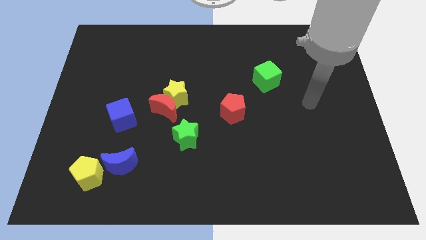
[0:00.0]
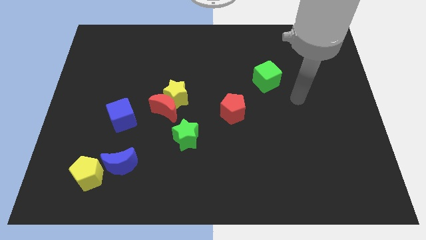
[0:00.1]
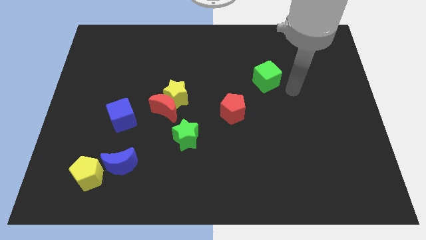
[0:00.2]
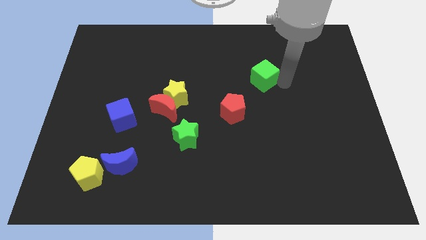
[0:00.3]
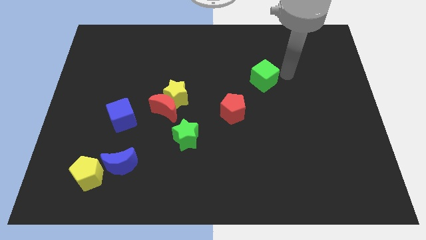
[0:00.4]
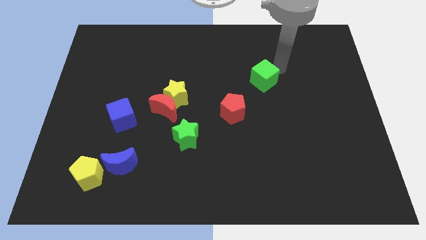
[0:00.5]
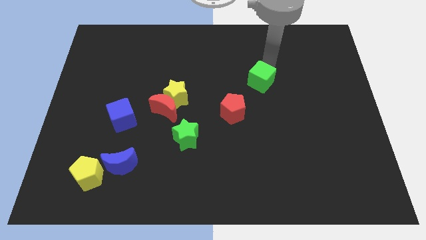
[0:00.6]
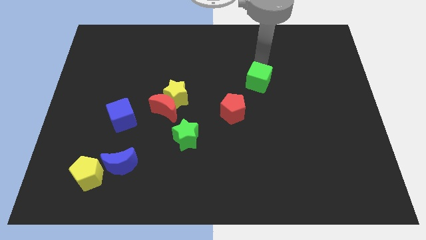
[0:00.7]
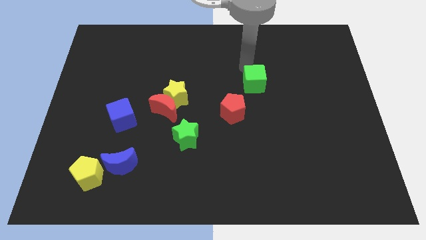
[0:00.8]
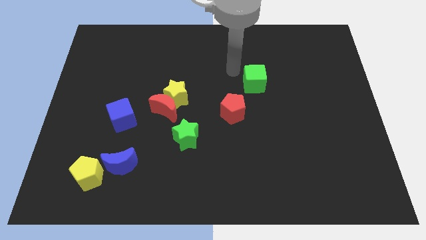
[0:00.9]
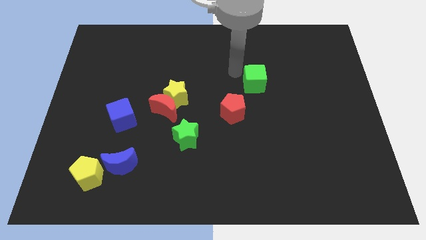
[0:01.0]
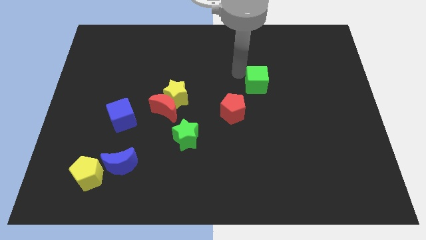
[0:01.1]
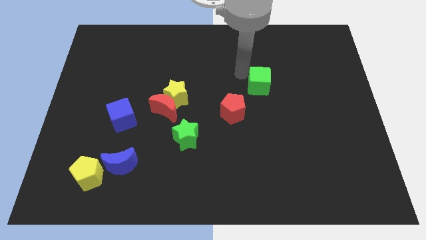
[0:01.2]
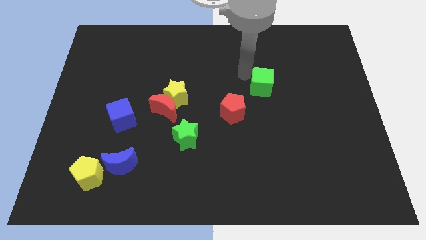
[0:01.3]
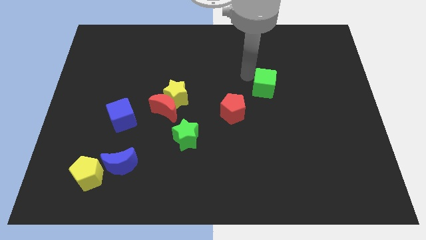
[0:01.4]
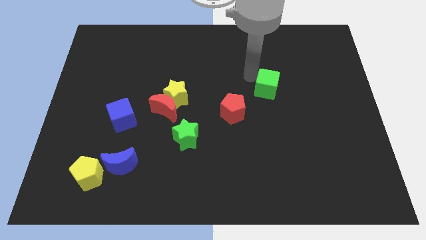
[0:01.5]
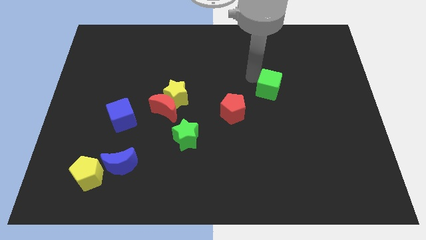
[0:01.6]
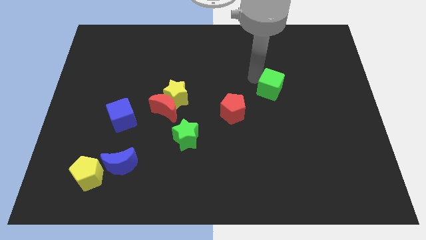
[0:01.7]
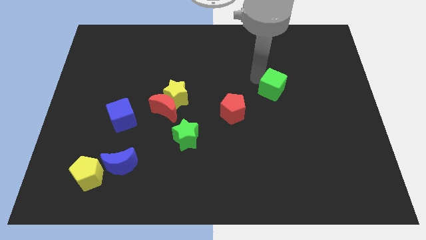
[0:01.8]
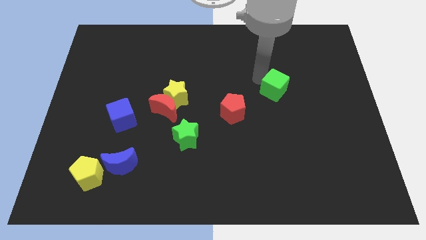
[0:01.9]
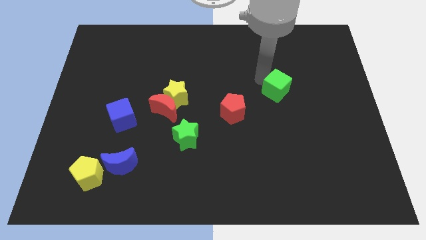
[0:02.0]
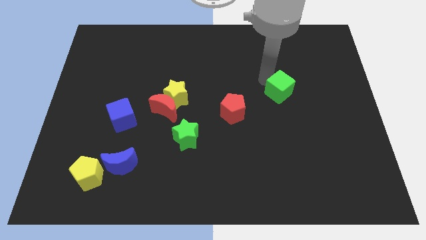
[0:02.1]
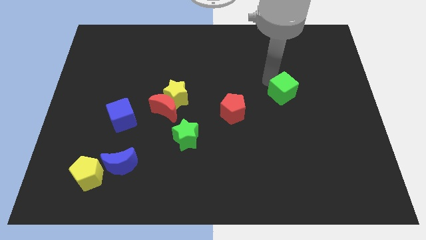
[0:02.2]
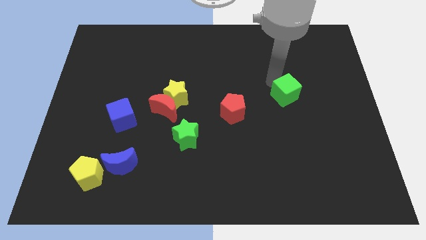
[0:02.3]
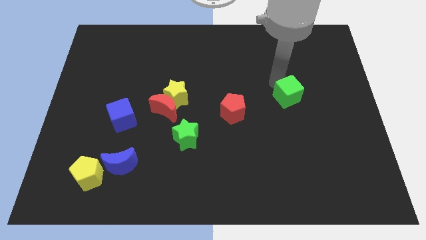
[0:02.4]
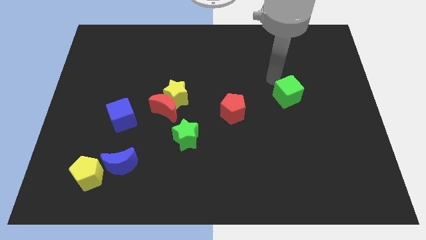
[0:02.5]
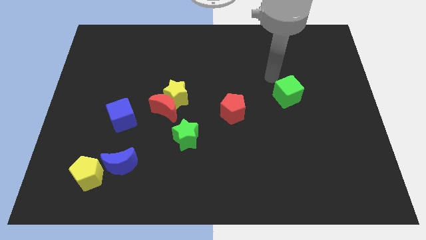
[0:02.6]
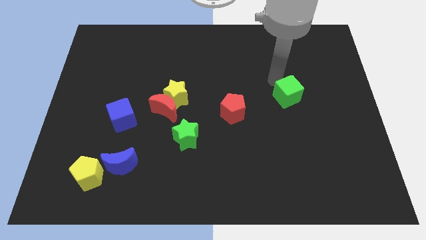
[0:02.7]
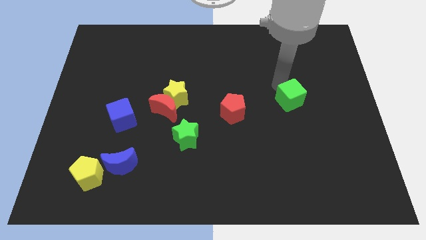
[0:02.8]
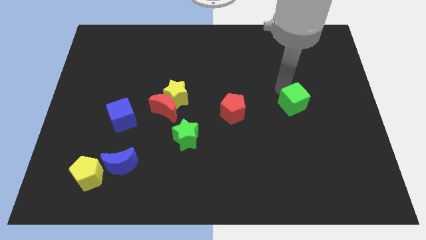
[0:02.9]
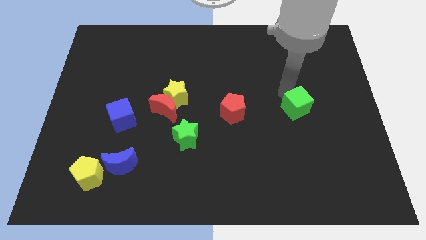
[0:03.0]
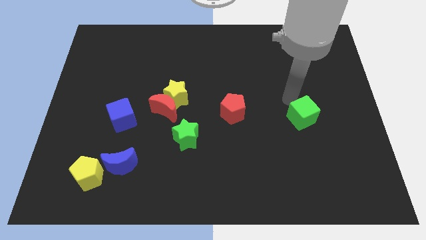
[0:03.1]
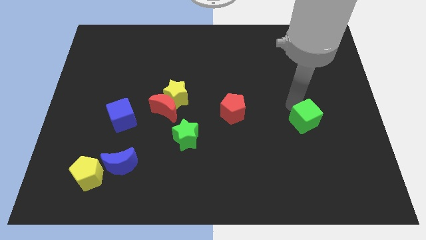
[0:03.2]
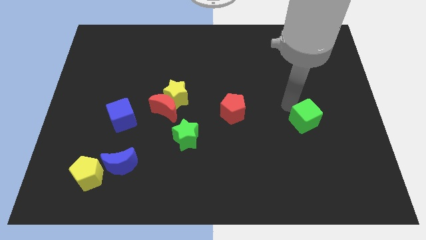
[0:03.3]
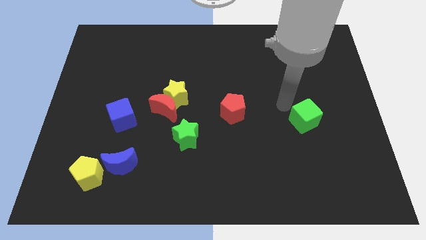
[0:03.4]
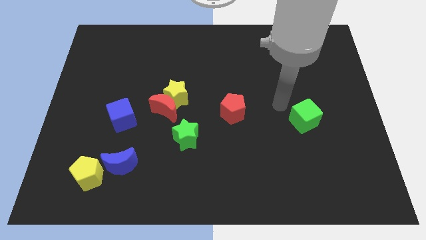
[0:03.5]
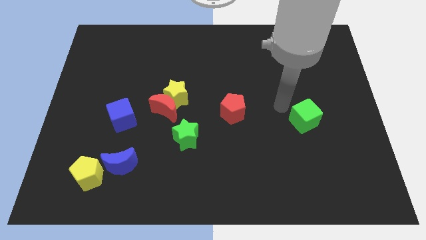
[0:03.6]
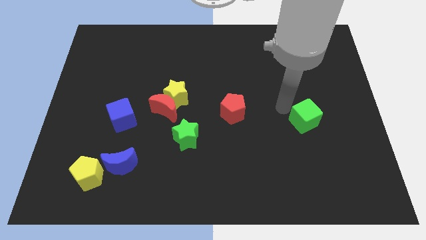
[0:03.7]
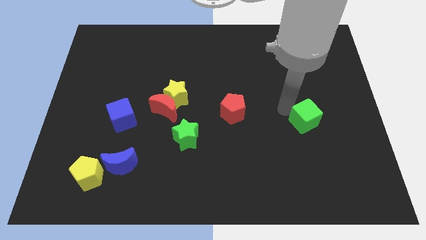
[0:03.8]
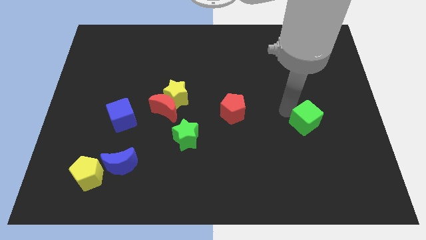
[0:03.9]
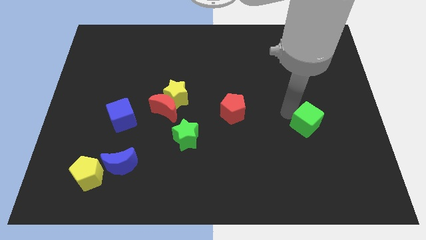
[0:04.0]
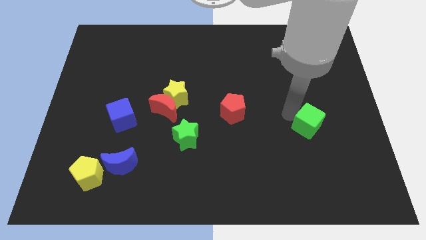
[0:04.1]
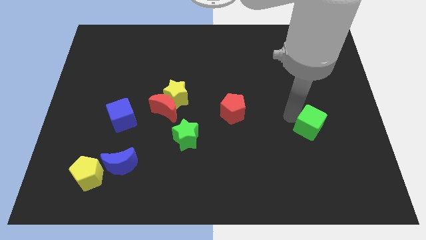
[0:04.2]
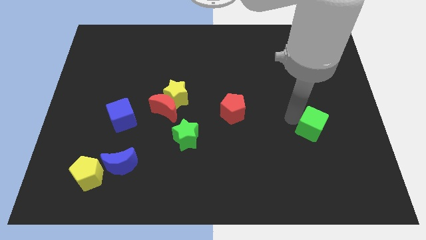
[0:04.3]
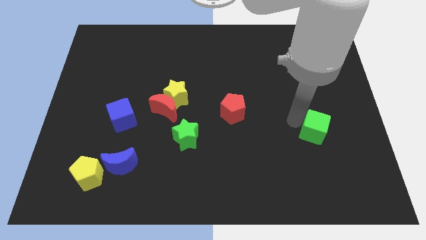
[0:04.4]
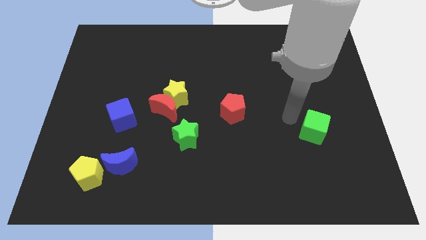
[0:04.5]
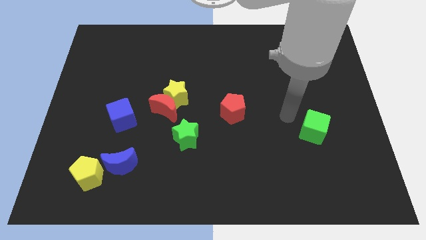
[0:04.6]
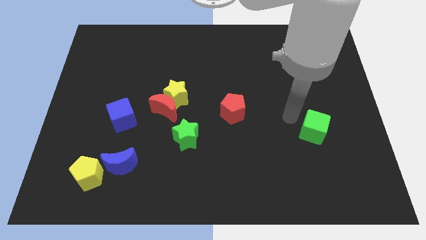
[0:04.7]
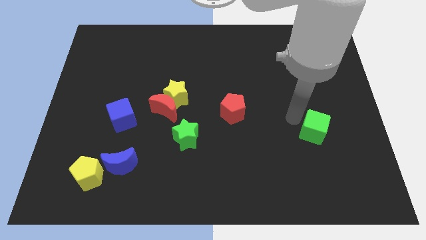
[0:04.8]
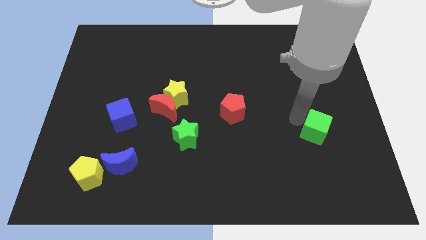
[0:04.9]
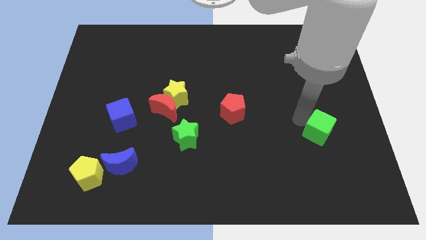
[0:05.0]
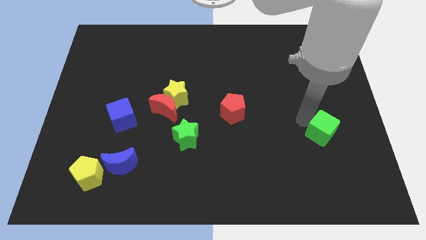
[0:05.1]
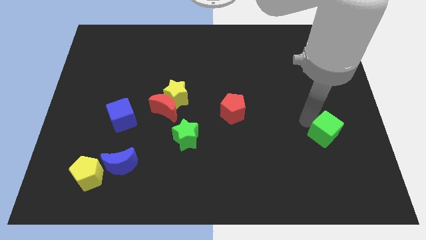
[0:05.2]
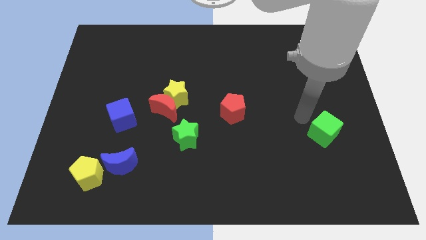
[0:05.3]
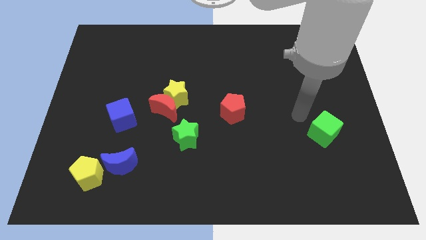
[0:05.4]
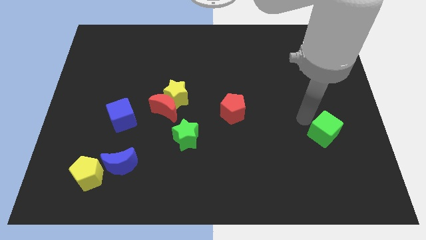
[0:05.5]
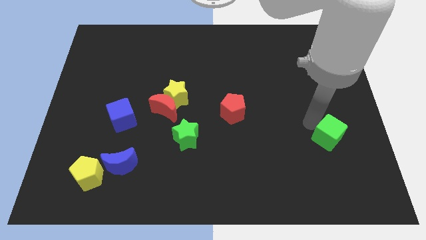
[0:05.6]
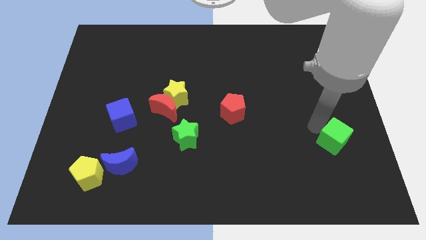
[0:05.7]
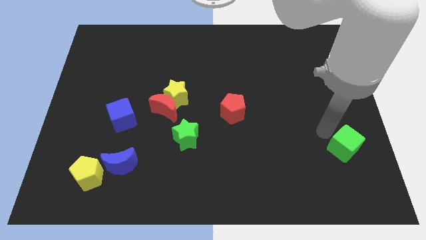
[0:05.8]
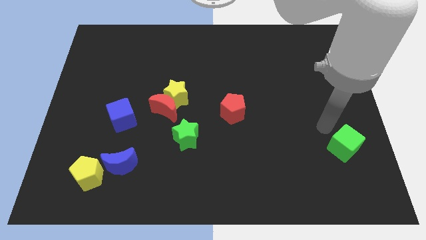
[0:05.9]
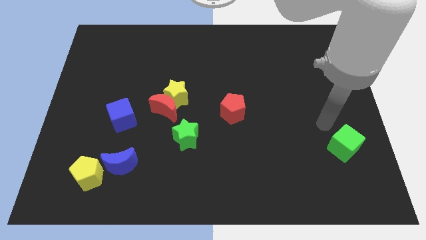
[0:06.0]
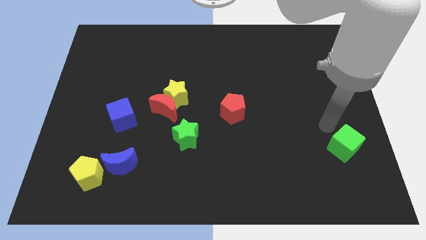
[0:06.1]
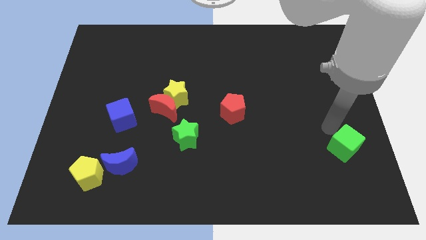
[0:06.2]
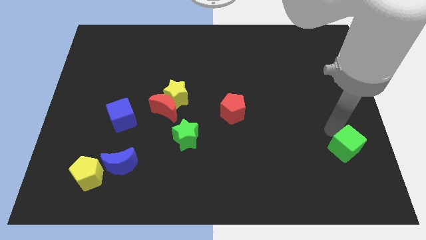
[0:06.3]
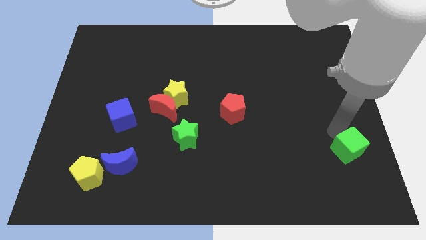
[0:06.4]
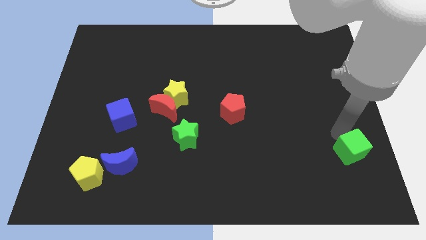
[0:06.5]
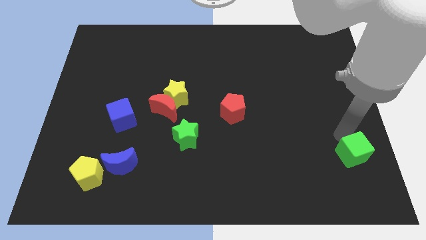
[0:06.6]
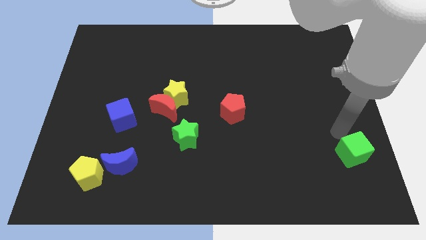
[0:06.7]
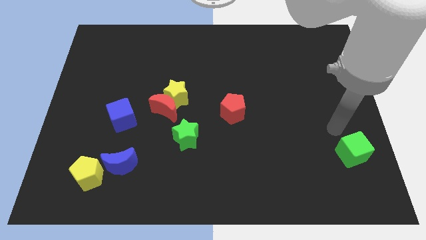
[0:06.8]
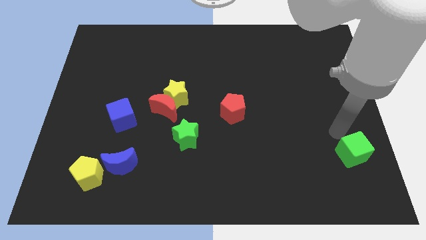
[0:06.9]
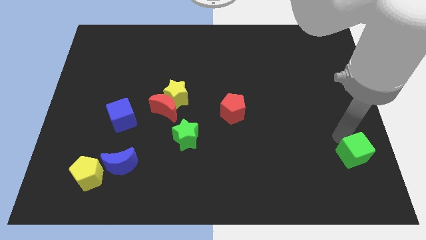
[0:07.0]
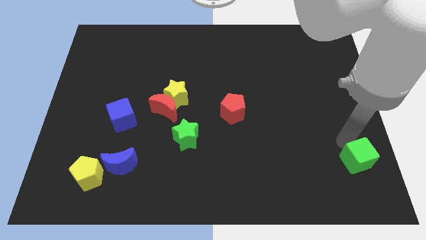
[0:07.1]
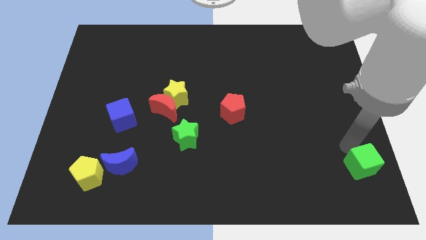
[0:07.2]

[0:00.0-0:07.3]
move the green cube to the bottom right of the board
